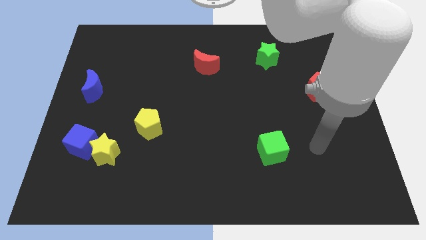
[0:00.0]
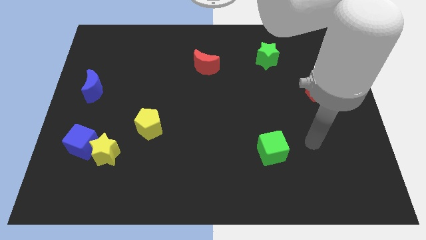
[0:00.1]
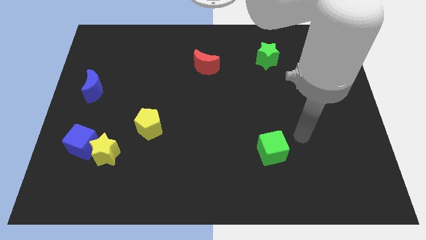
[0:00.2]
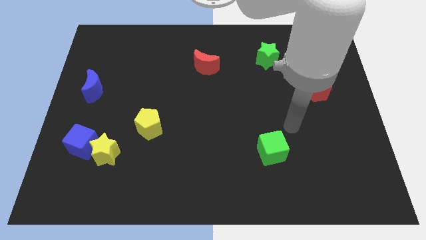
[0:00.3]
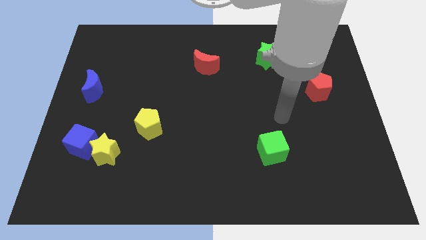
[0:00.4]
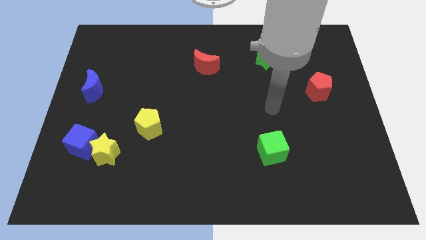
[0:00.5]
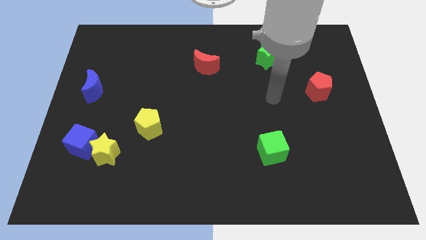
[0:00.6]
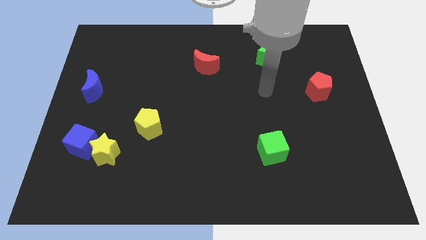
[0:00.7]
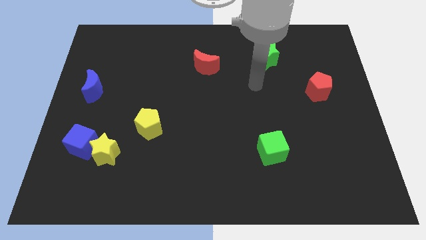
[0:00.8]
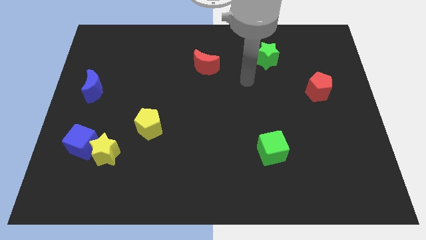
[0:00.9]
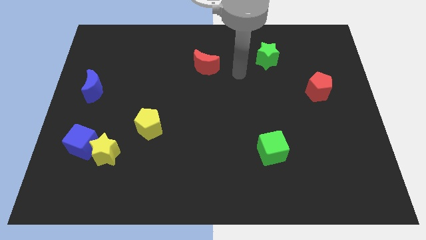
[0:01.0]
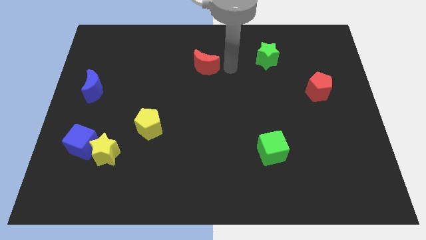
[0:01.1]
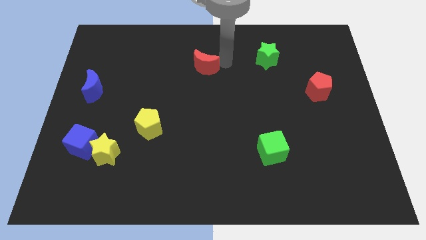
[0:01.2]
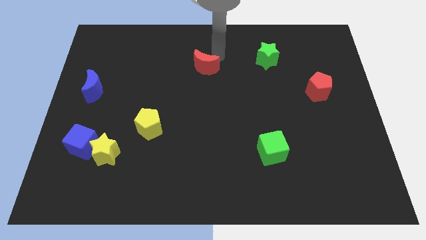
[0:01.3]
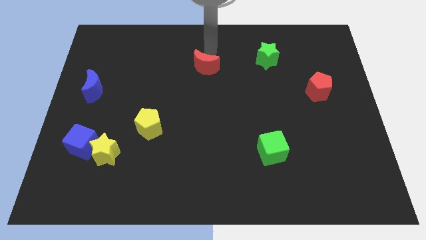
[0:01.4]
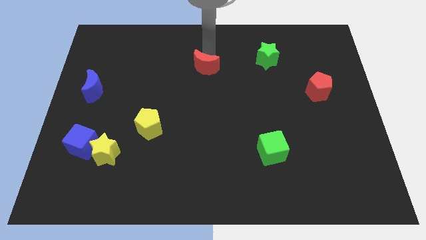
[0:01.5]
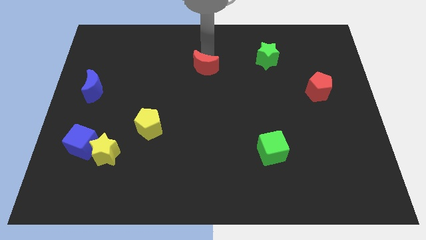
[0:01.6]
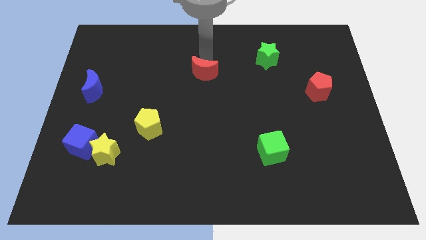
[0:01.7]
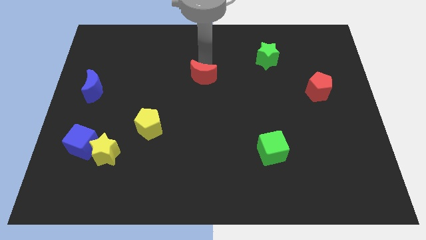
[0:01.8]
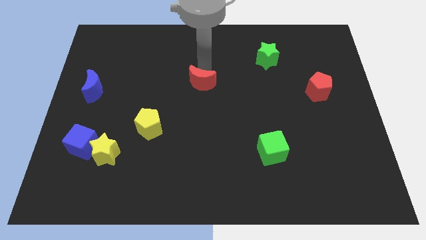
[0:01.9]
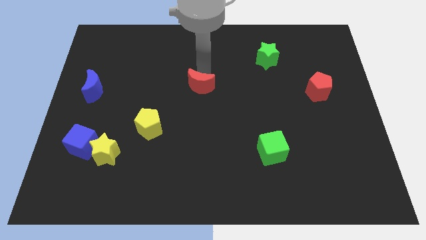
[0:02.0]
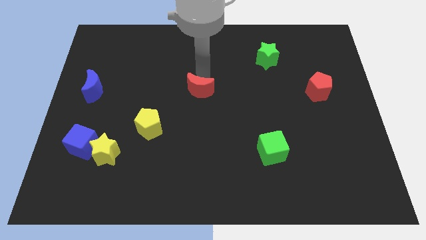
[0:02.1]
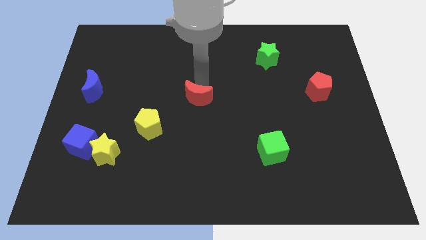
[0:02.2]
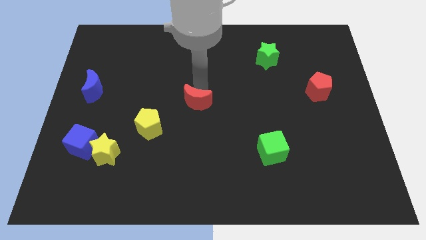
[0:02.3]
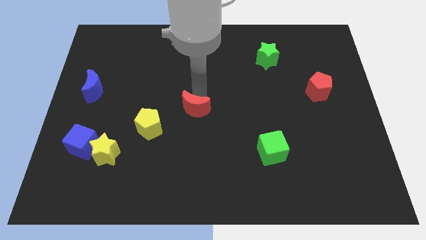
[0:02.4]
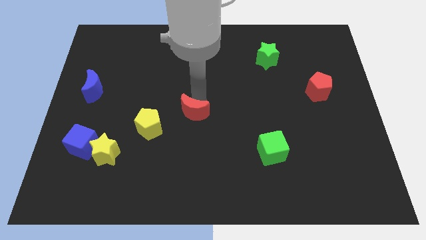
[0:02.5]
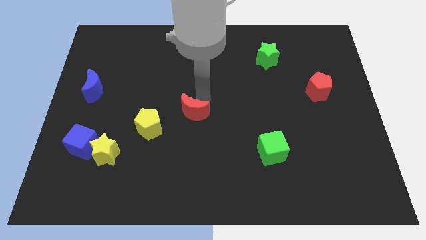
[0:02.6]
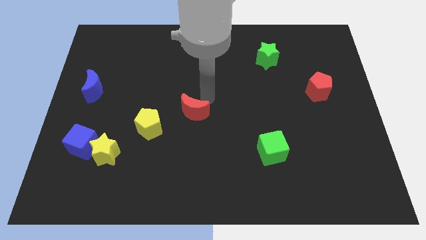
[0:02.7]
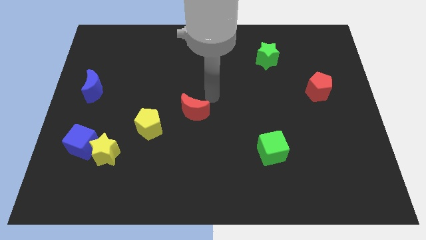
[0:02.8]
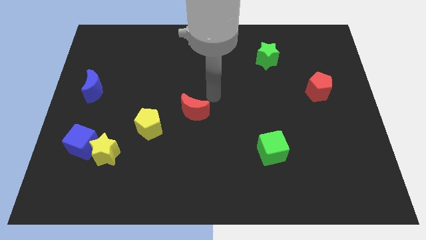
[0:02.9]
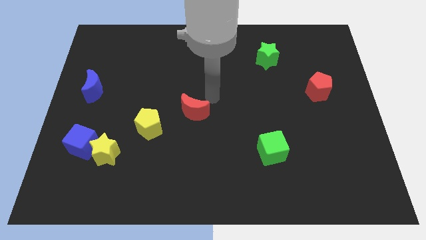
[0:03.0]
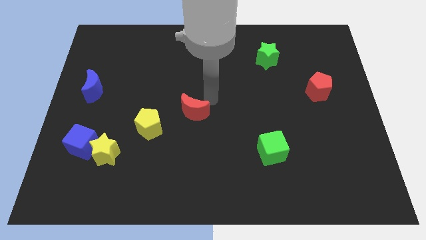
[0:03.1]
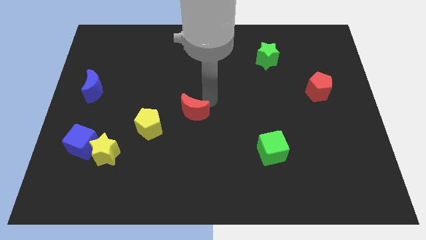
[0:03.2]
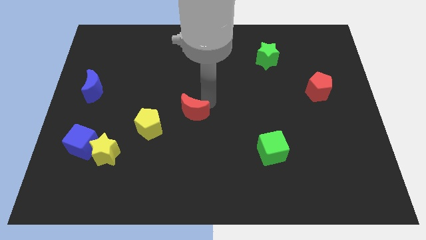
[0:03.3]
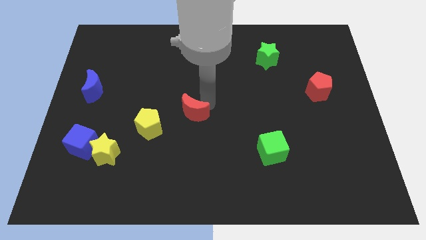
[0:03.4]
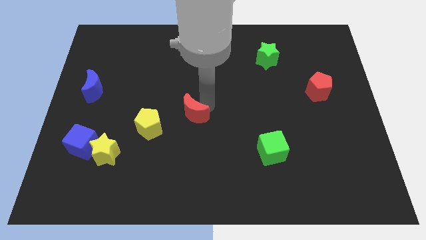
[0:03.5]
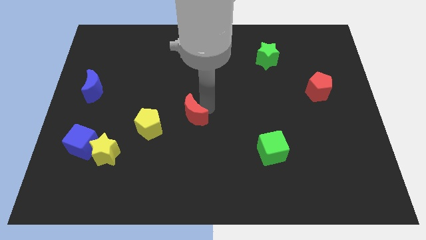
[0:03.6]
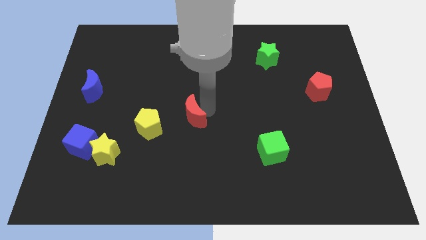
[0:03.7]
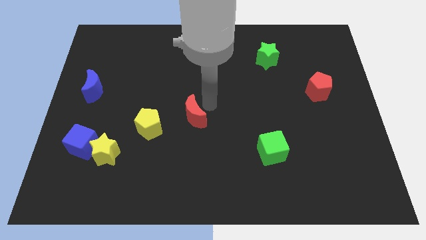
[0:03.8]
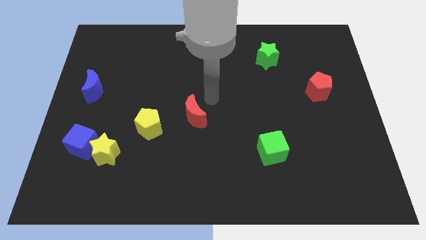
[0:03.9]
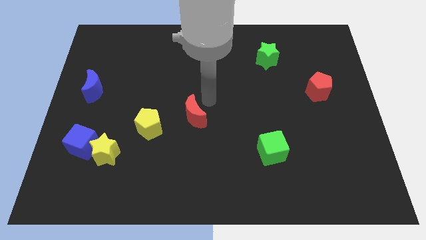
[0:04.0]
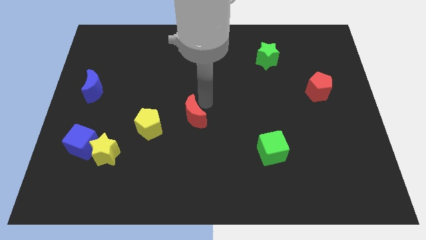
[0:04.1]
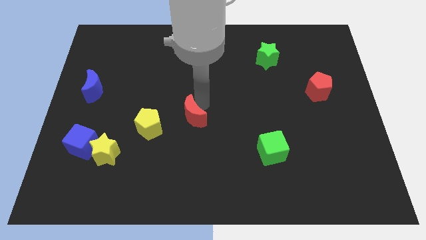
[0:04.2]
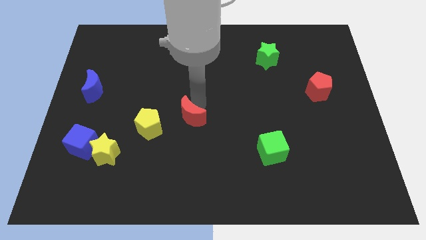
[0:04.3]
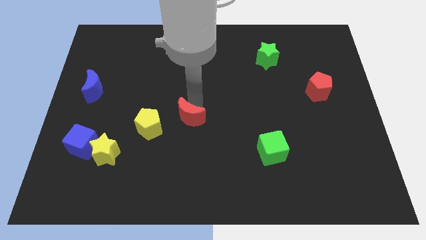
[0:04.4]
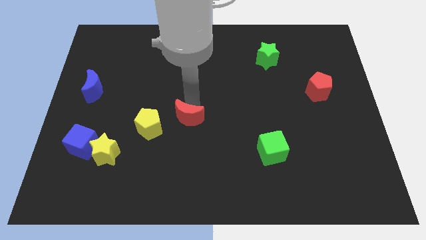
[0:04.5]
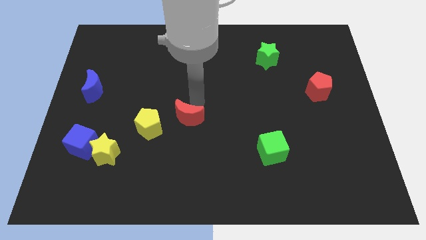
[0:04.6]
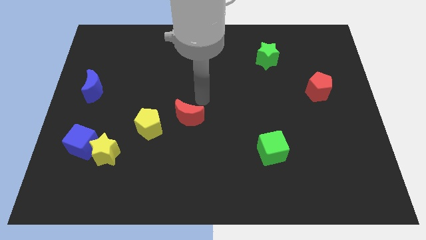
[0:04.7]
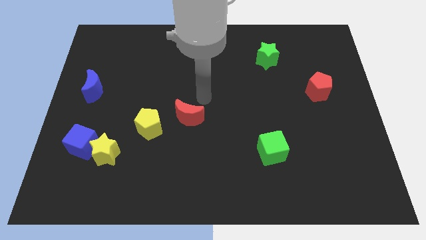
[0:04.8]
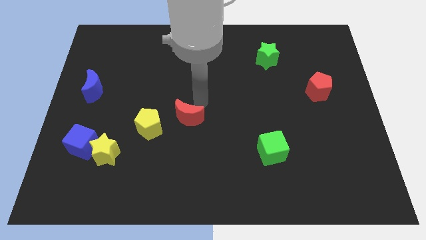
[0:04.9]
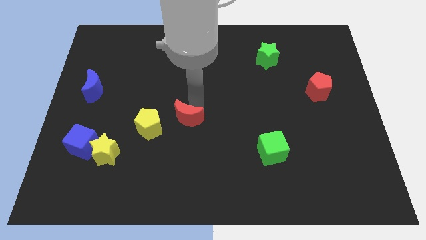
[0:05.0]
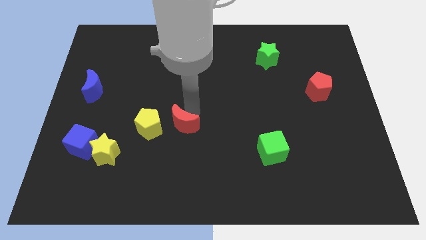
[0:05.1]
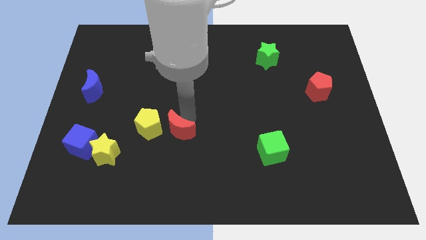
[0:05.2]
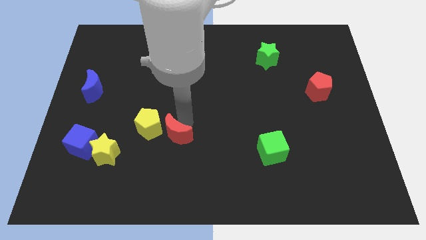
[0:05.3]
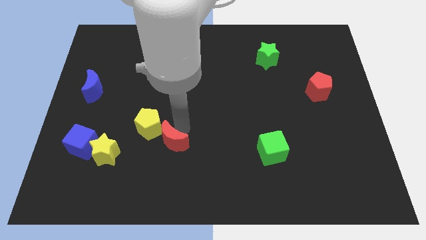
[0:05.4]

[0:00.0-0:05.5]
slide the red moon to the right side of the yellow star

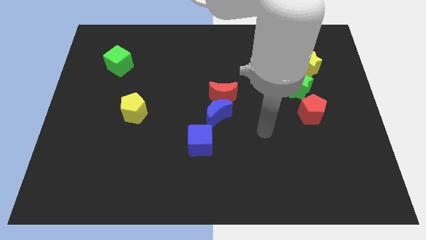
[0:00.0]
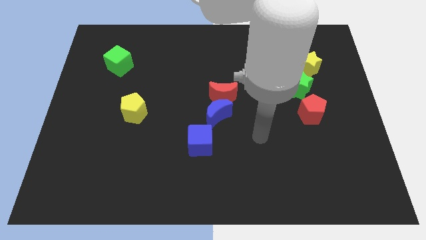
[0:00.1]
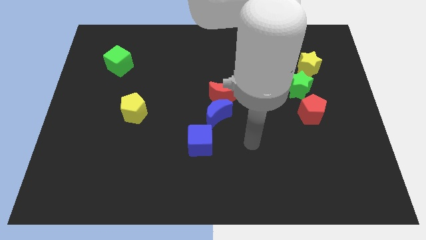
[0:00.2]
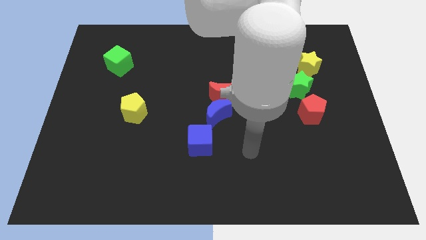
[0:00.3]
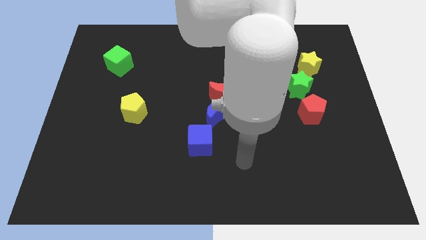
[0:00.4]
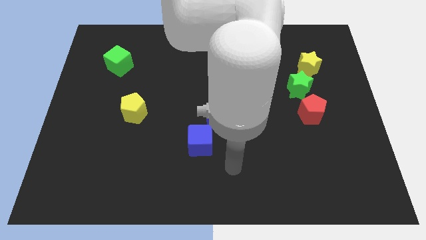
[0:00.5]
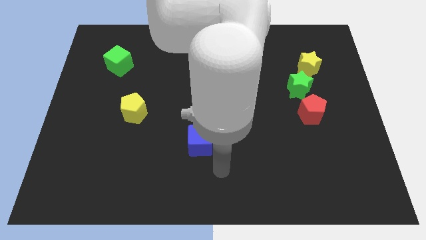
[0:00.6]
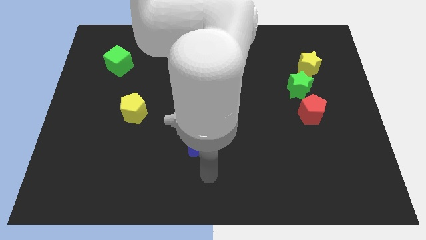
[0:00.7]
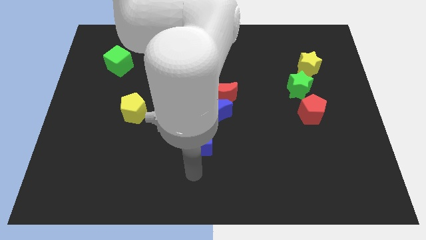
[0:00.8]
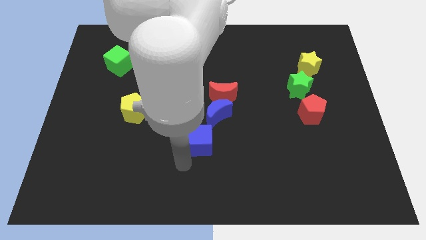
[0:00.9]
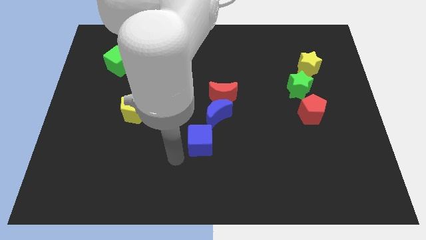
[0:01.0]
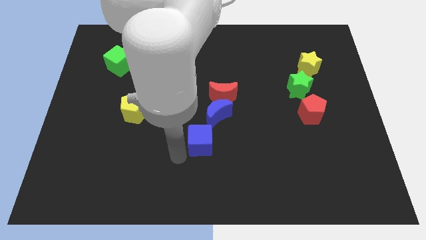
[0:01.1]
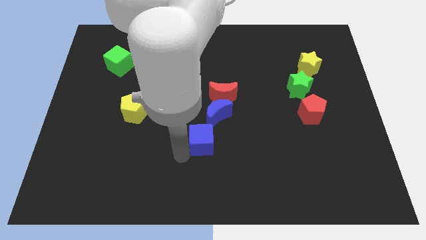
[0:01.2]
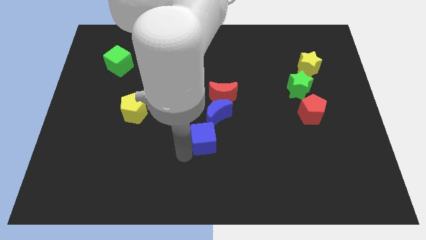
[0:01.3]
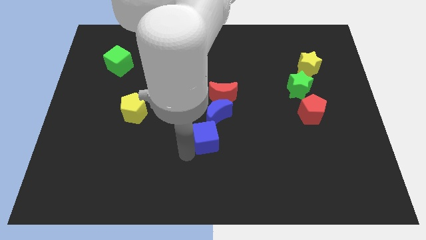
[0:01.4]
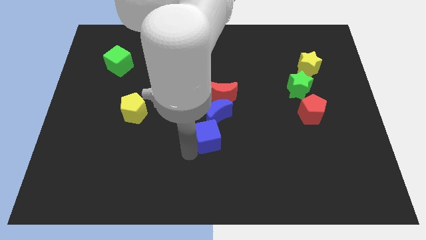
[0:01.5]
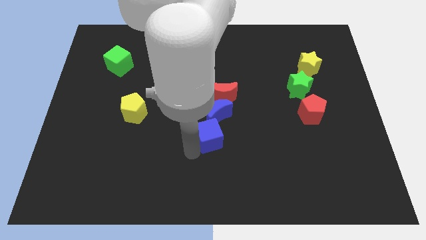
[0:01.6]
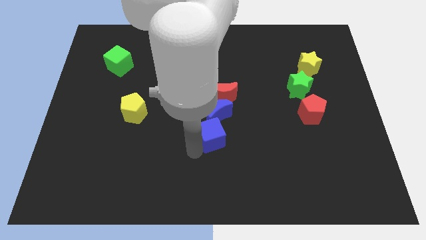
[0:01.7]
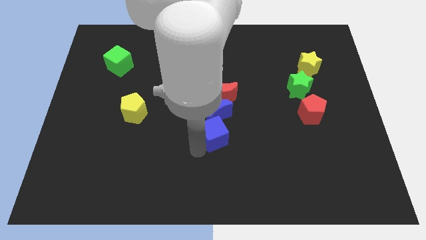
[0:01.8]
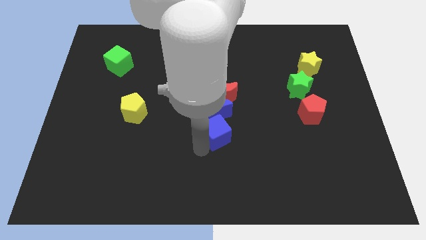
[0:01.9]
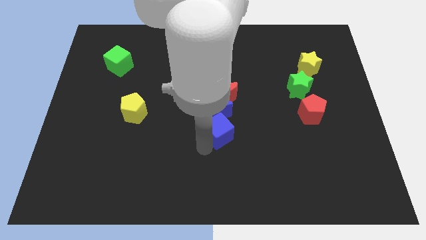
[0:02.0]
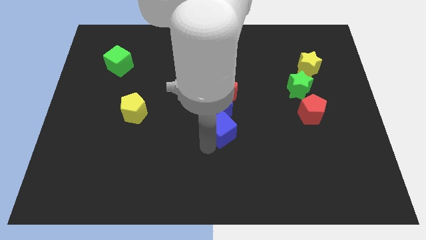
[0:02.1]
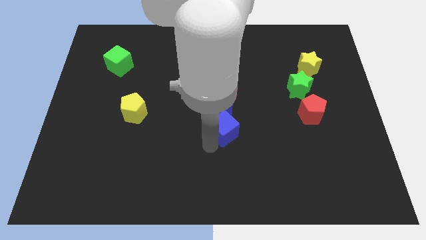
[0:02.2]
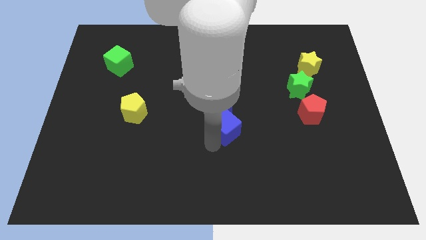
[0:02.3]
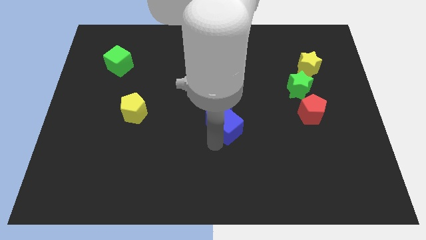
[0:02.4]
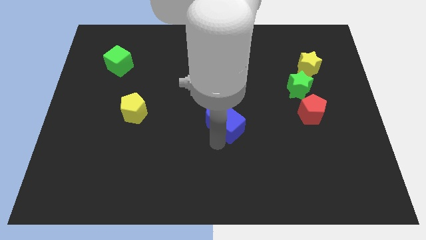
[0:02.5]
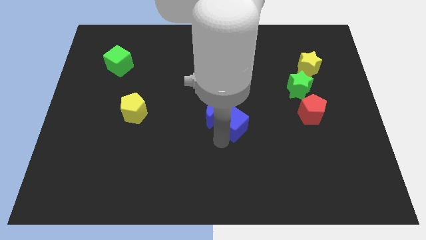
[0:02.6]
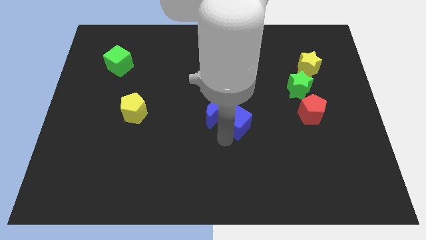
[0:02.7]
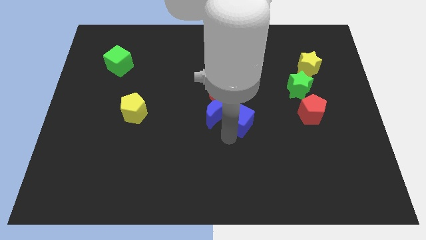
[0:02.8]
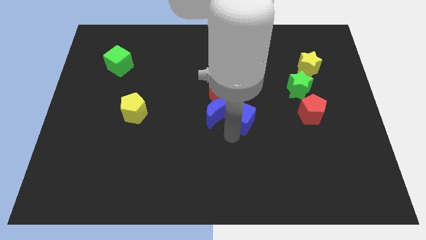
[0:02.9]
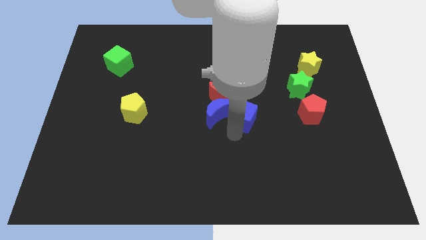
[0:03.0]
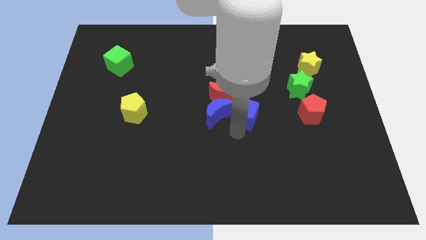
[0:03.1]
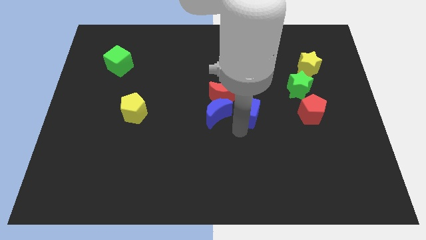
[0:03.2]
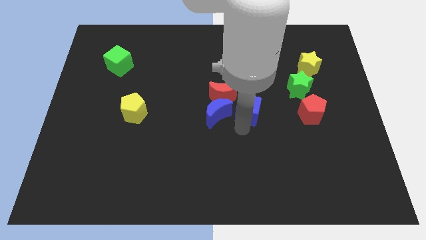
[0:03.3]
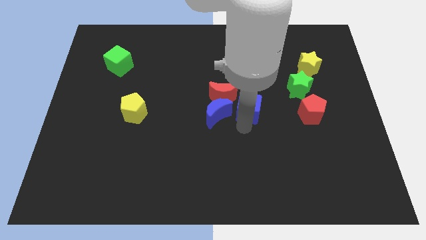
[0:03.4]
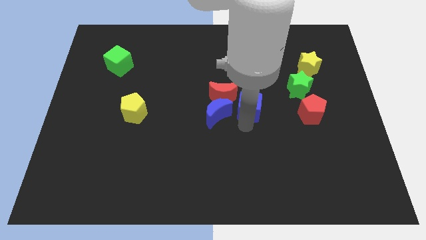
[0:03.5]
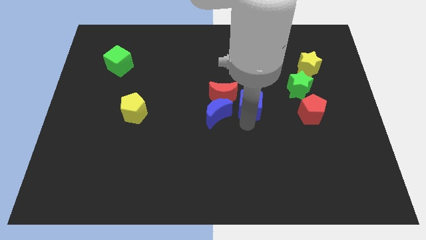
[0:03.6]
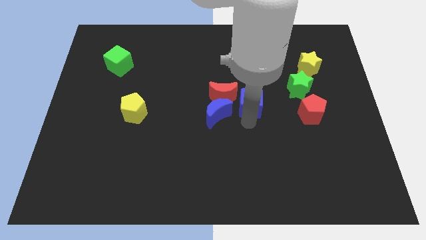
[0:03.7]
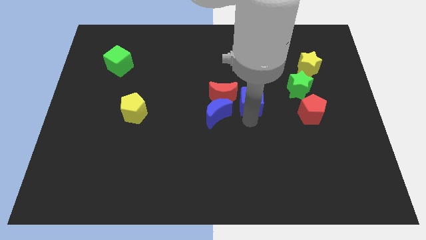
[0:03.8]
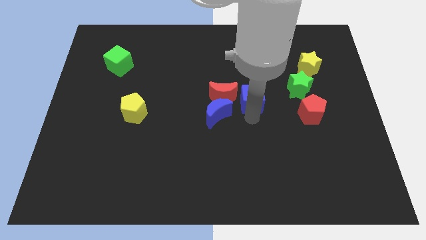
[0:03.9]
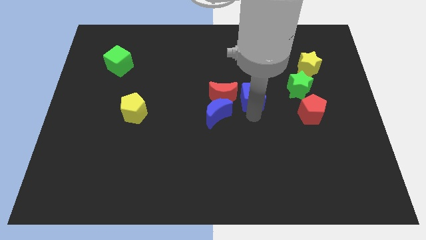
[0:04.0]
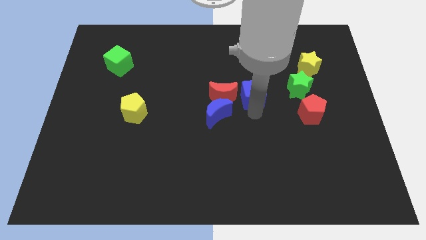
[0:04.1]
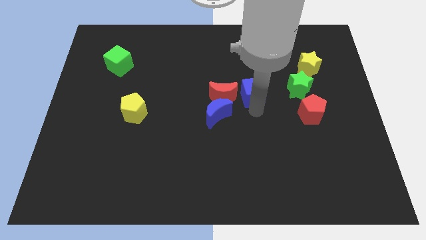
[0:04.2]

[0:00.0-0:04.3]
slide the blue cube diagonally up and to the right of the red moon
